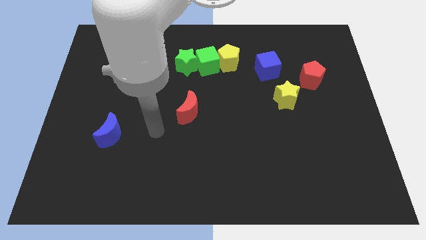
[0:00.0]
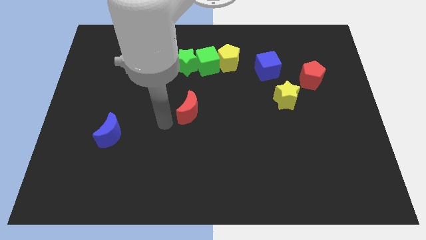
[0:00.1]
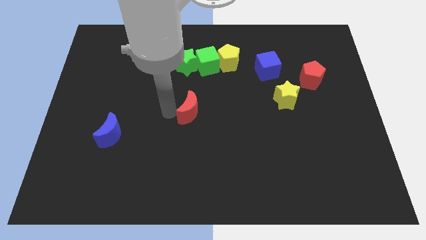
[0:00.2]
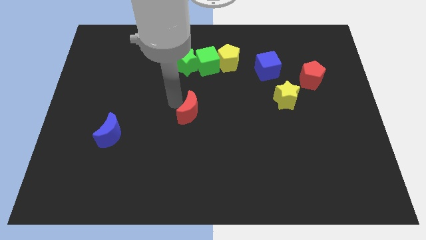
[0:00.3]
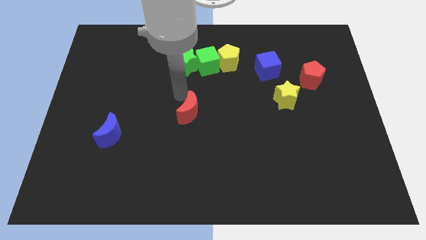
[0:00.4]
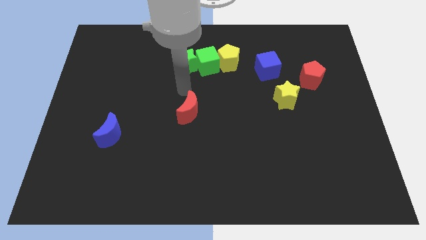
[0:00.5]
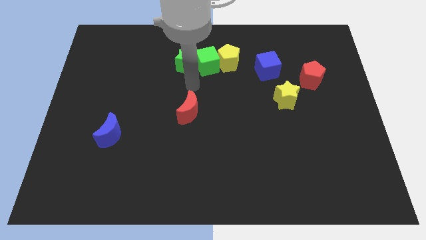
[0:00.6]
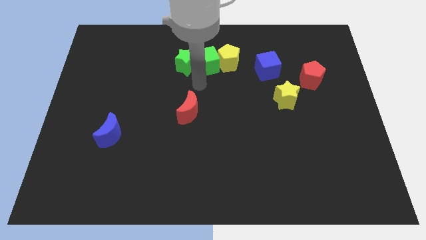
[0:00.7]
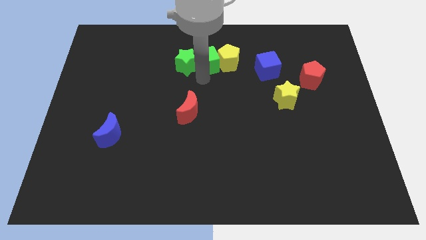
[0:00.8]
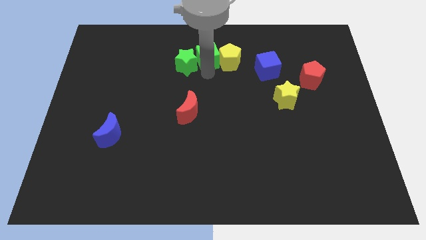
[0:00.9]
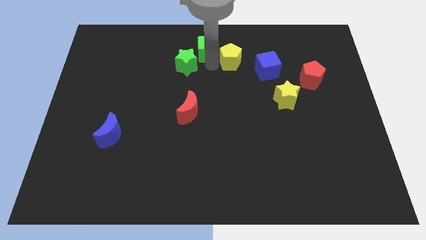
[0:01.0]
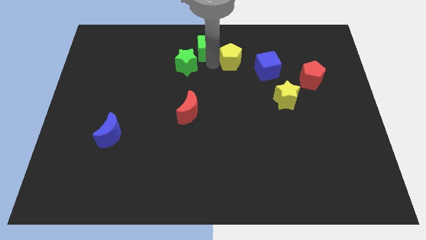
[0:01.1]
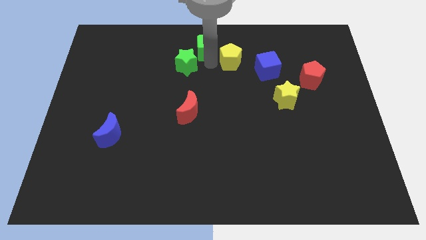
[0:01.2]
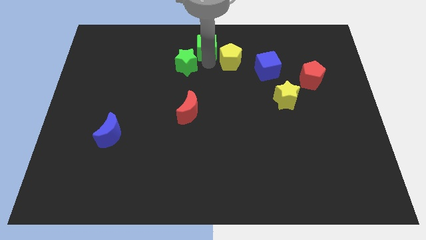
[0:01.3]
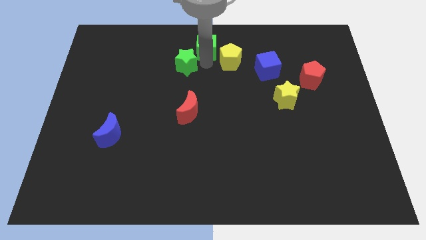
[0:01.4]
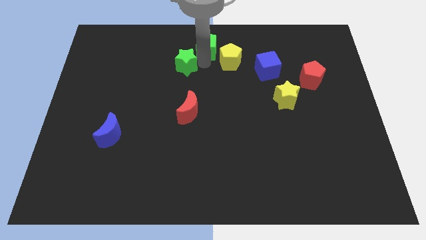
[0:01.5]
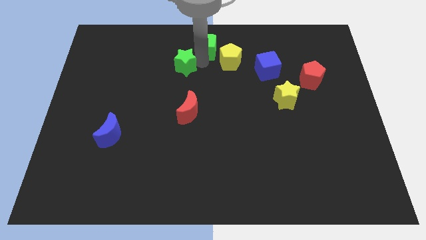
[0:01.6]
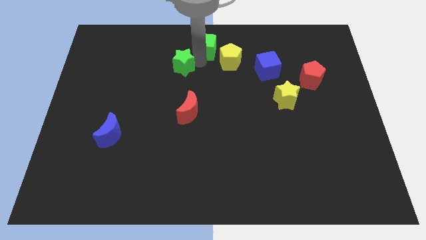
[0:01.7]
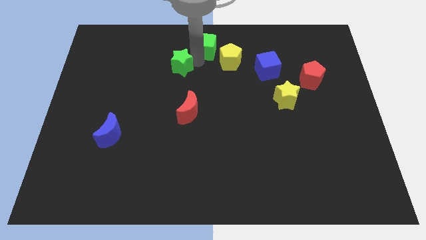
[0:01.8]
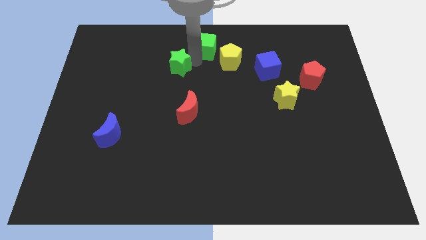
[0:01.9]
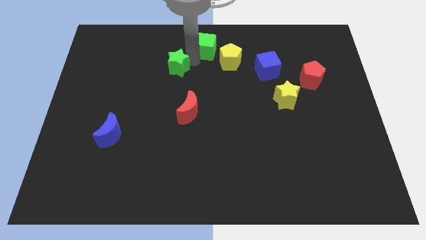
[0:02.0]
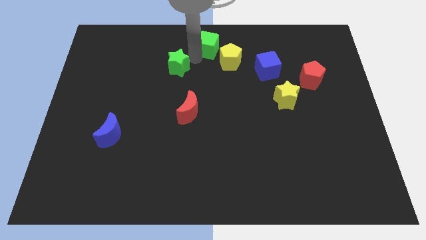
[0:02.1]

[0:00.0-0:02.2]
move the green star away from the green cube

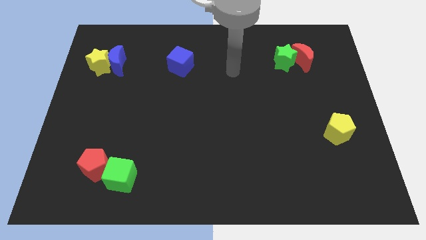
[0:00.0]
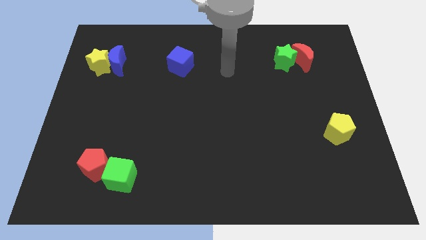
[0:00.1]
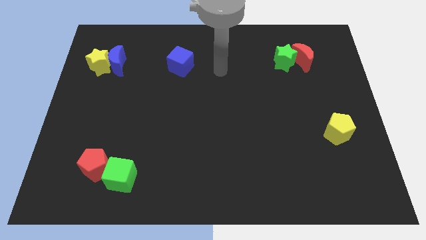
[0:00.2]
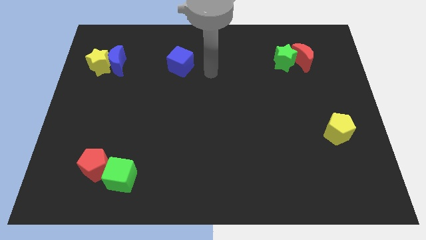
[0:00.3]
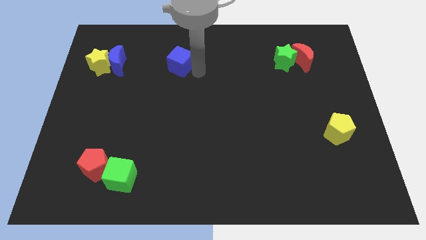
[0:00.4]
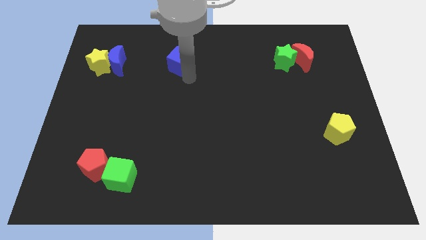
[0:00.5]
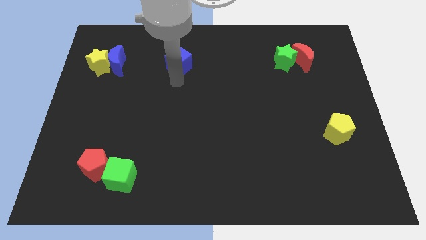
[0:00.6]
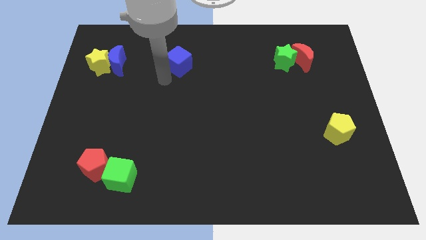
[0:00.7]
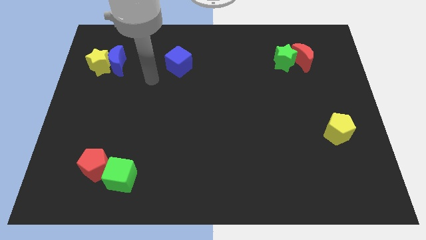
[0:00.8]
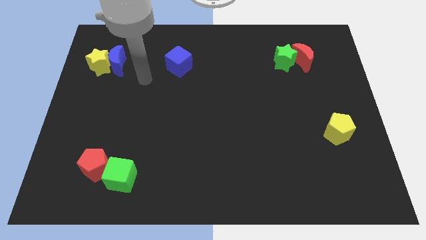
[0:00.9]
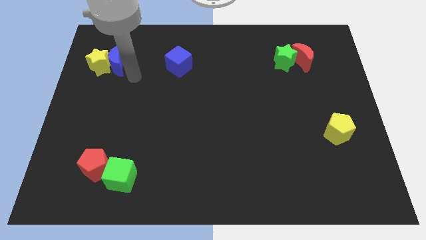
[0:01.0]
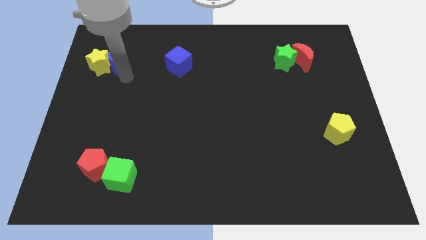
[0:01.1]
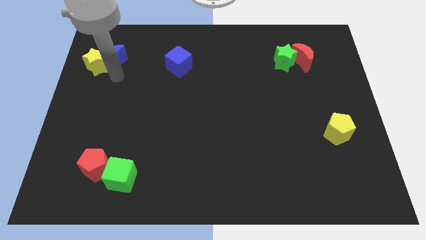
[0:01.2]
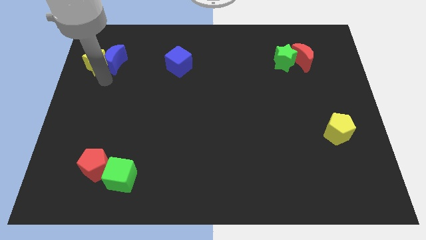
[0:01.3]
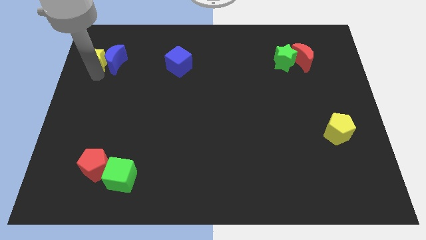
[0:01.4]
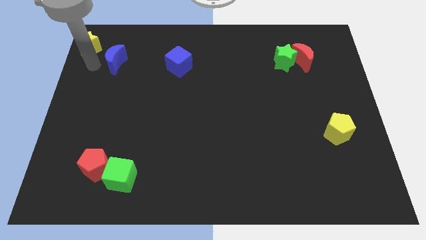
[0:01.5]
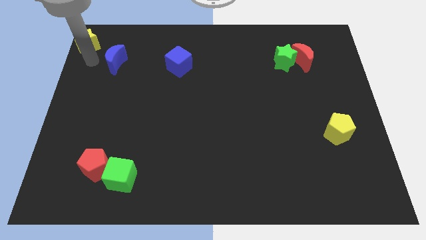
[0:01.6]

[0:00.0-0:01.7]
pull the blue moon apart from the yellow star

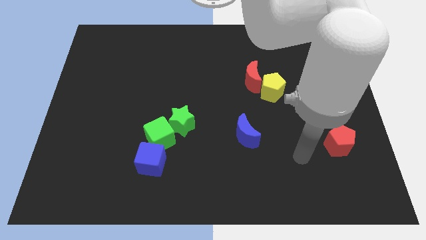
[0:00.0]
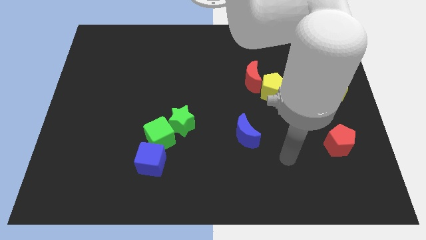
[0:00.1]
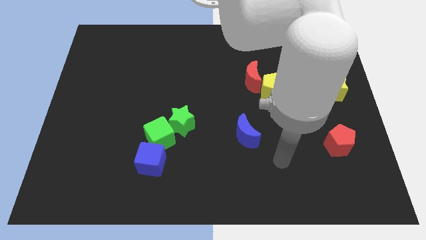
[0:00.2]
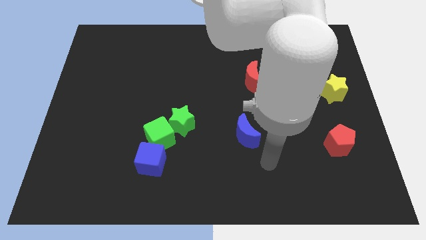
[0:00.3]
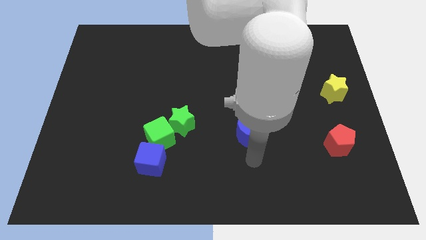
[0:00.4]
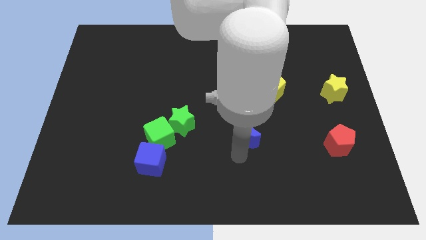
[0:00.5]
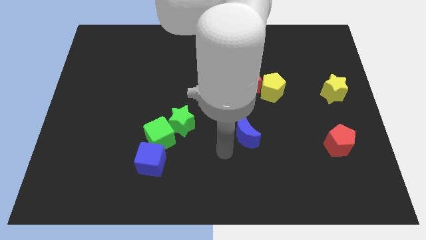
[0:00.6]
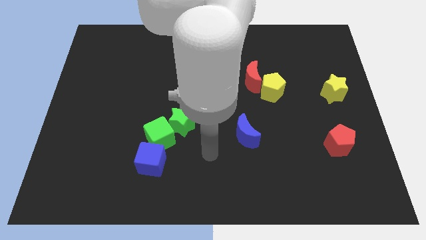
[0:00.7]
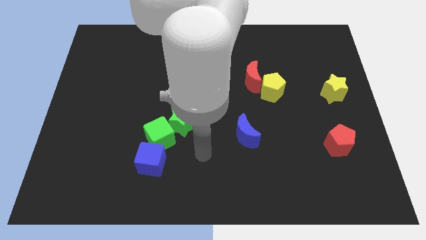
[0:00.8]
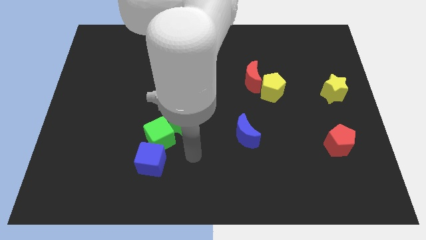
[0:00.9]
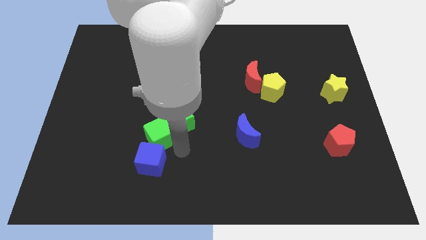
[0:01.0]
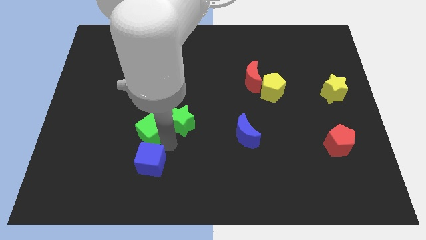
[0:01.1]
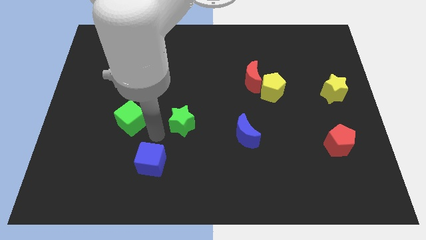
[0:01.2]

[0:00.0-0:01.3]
separate the green star from the green cube

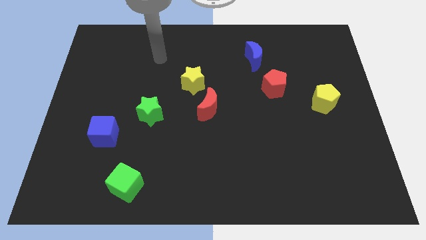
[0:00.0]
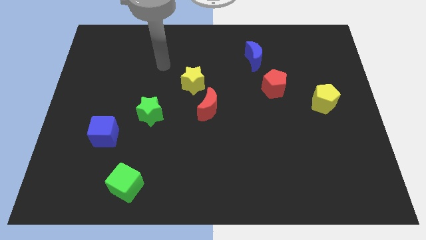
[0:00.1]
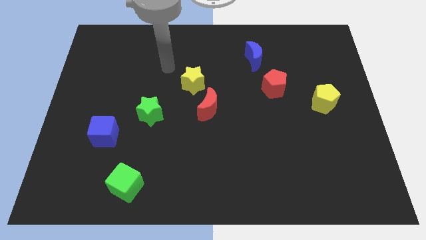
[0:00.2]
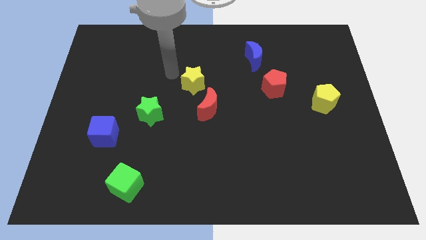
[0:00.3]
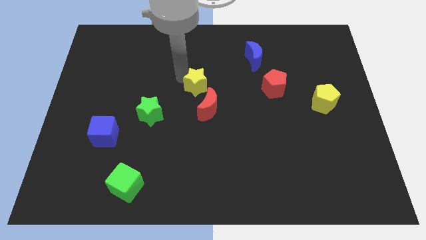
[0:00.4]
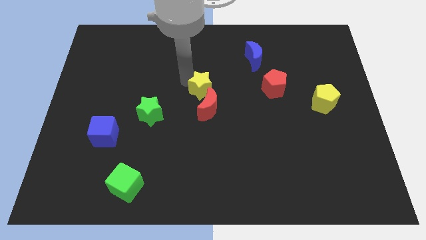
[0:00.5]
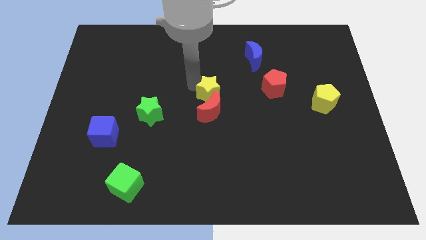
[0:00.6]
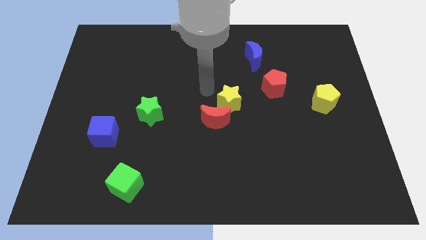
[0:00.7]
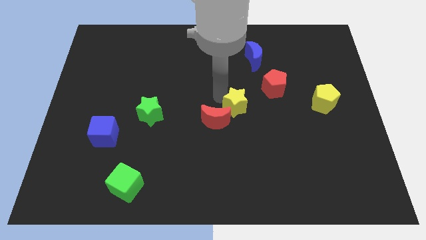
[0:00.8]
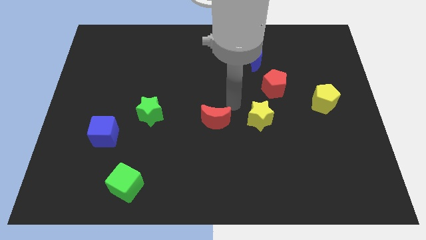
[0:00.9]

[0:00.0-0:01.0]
separate the red moon from the yellow star

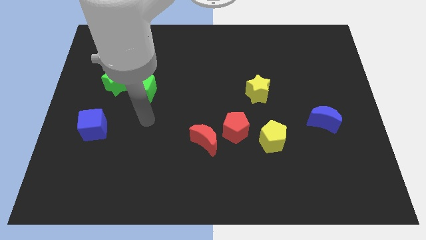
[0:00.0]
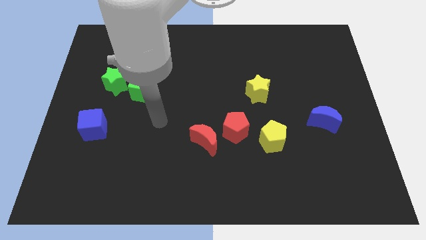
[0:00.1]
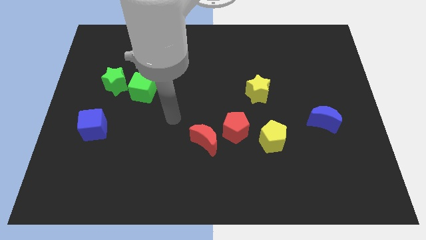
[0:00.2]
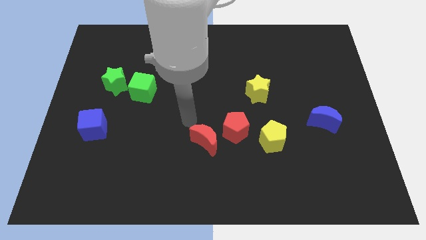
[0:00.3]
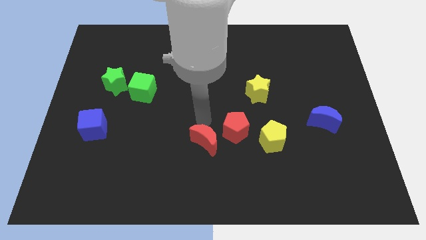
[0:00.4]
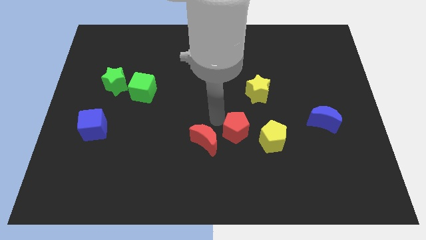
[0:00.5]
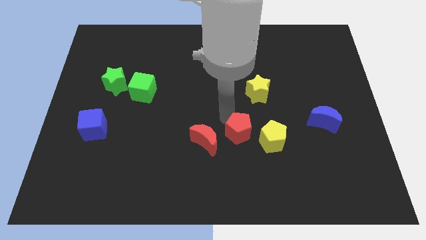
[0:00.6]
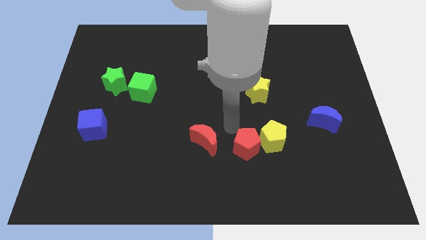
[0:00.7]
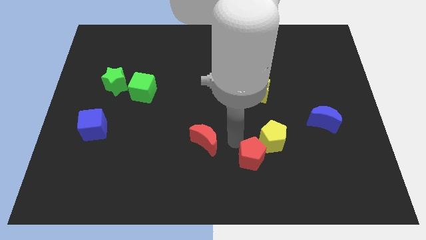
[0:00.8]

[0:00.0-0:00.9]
move the red moon away from the red pentagon

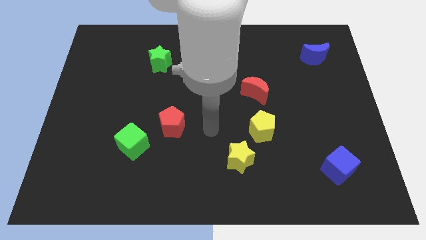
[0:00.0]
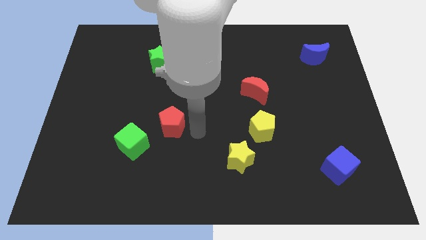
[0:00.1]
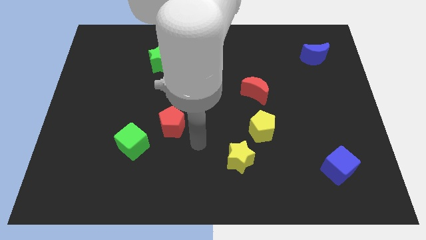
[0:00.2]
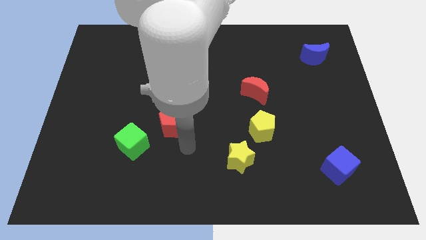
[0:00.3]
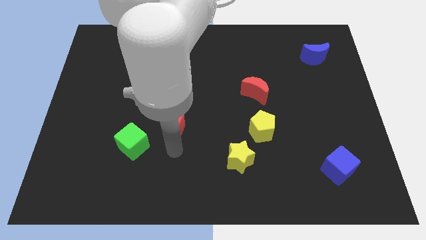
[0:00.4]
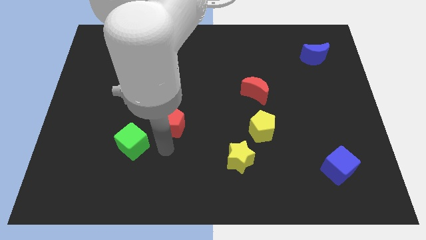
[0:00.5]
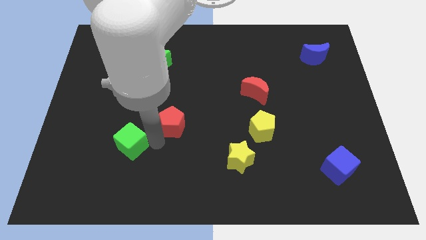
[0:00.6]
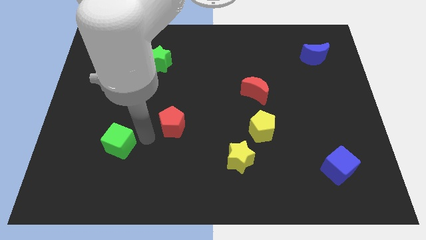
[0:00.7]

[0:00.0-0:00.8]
separate the red pentagon from the green cube

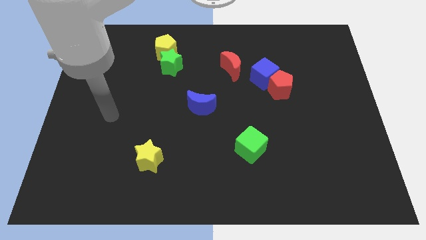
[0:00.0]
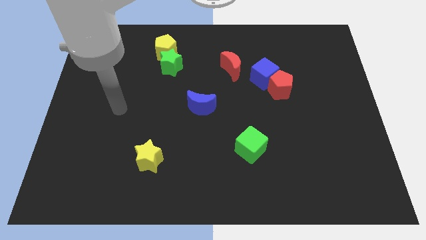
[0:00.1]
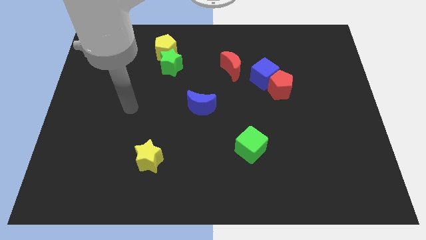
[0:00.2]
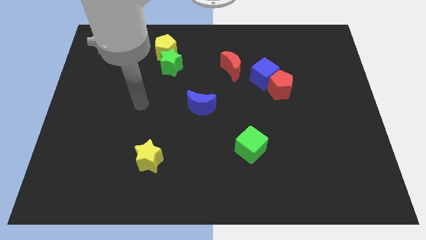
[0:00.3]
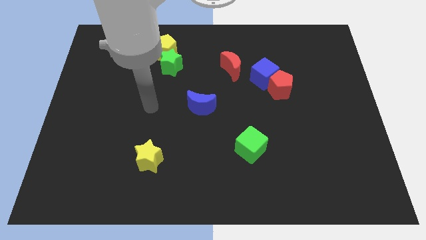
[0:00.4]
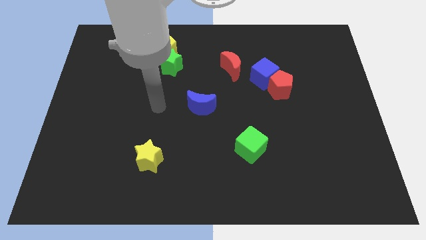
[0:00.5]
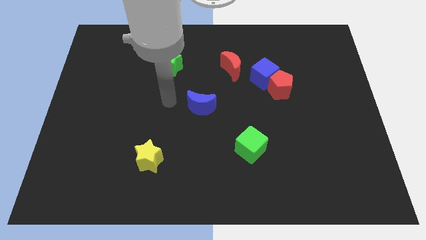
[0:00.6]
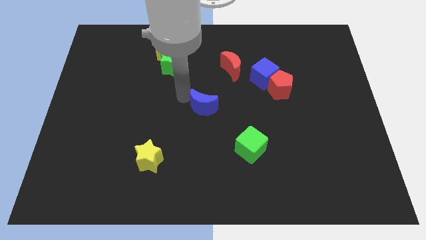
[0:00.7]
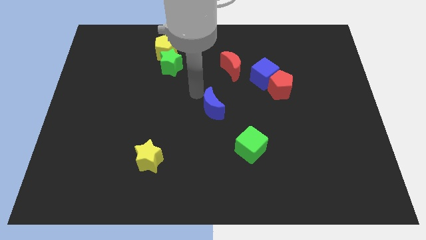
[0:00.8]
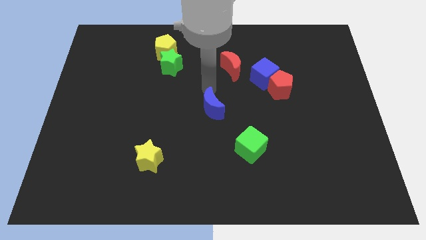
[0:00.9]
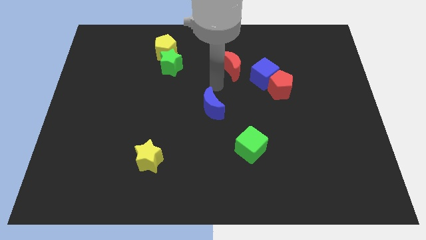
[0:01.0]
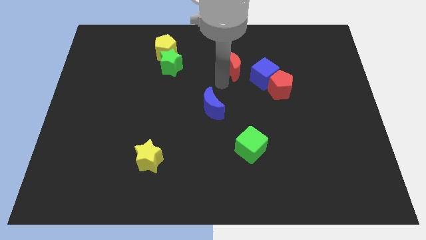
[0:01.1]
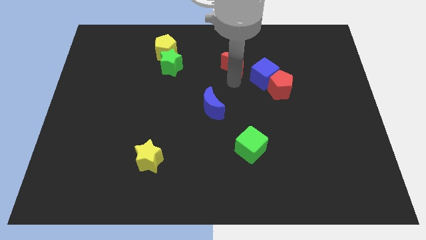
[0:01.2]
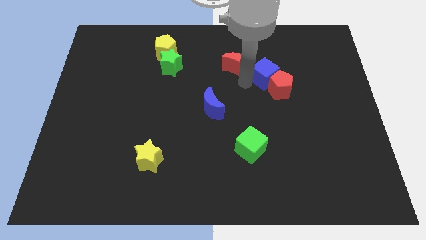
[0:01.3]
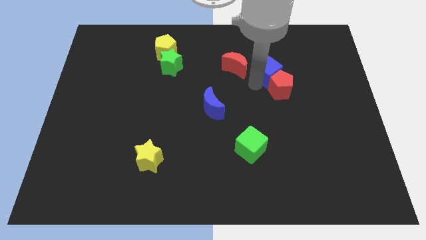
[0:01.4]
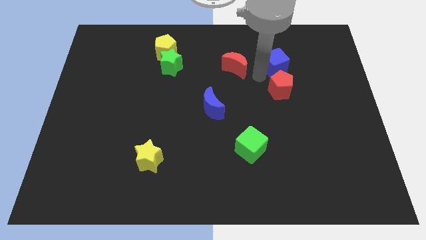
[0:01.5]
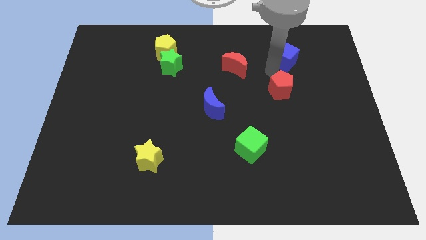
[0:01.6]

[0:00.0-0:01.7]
pull the red pentagon apart from the blue cube
